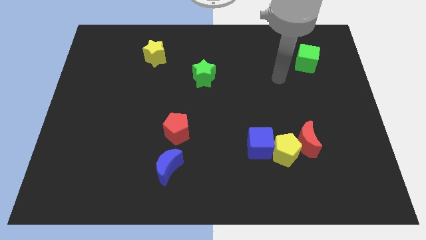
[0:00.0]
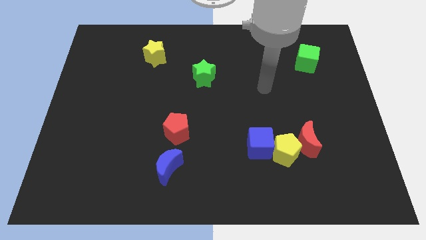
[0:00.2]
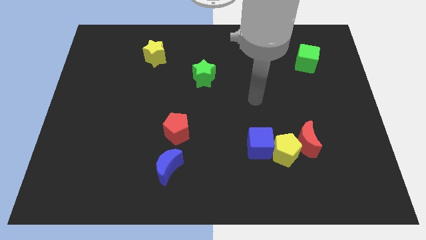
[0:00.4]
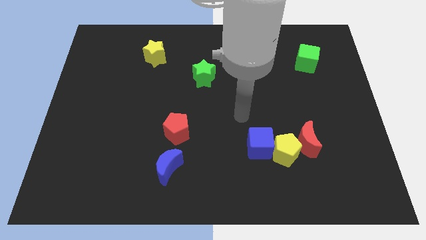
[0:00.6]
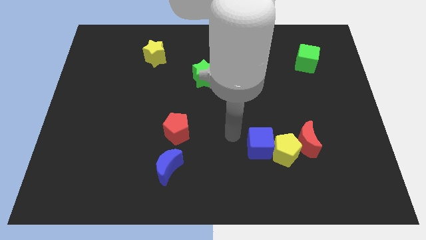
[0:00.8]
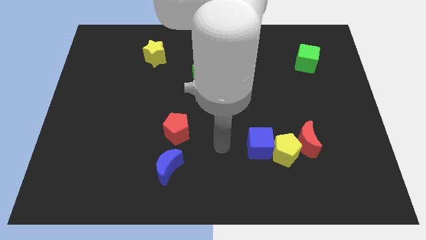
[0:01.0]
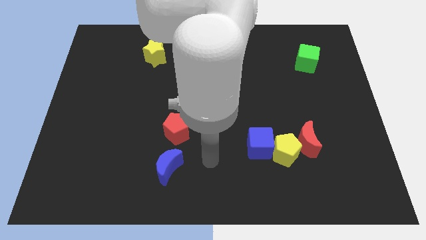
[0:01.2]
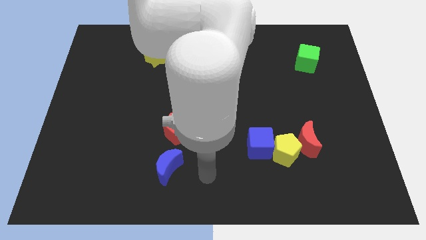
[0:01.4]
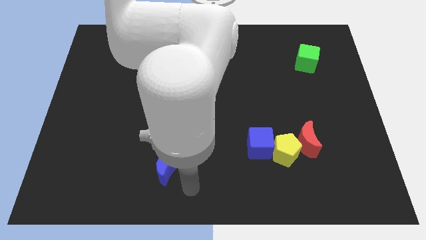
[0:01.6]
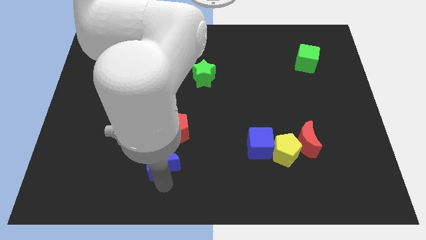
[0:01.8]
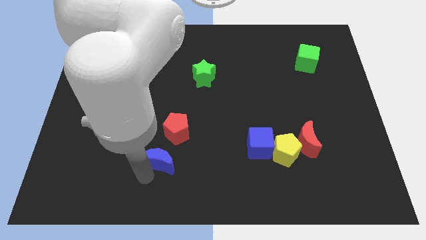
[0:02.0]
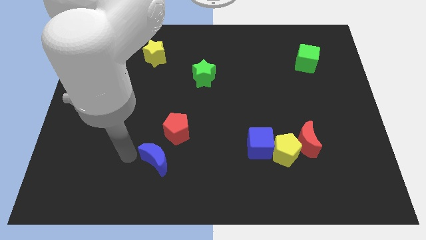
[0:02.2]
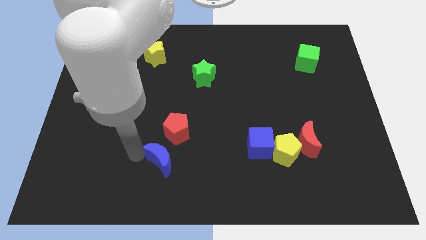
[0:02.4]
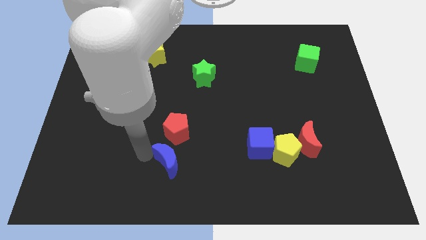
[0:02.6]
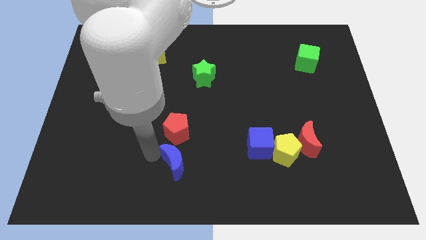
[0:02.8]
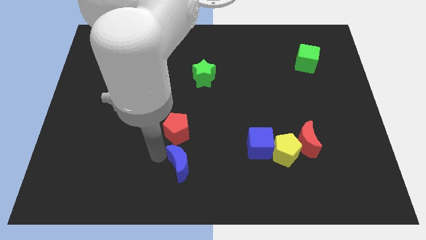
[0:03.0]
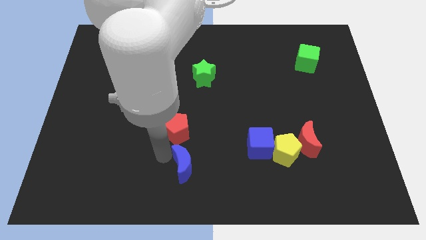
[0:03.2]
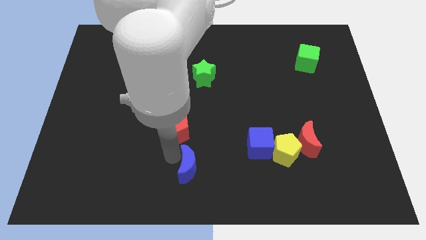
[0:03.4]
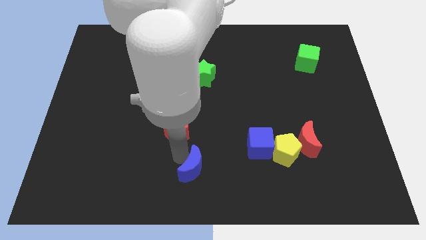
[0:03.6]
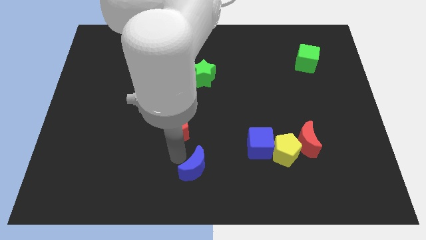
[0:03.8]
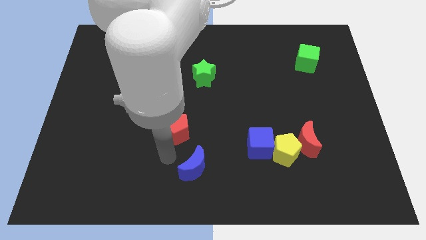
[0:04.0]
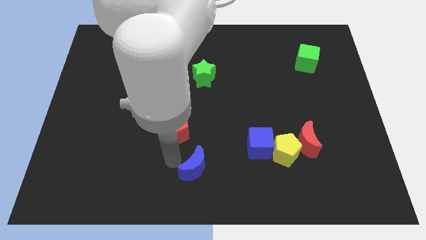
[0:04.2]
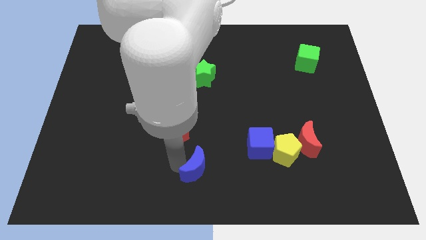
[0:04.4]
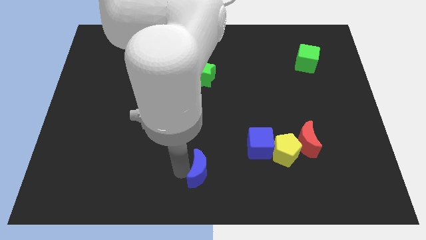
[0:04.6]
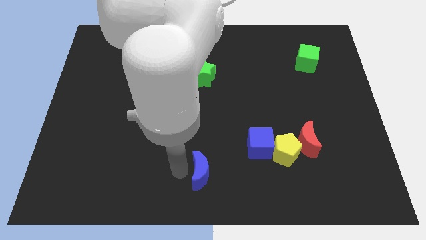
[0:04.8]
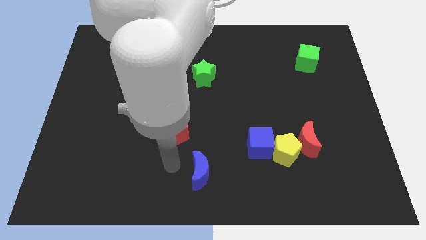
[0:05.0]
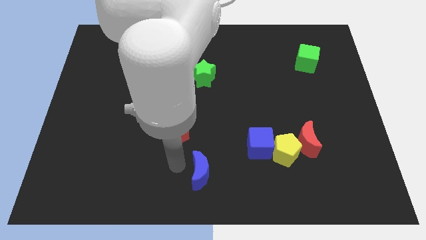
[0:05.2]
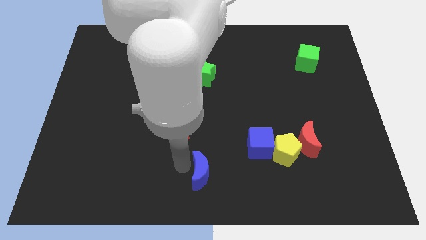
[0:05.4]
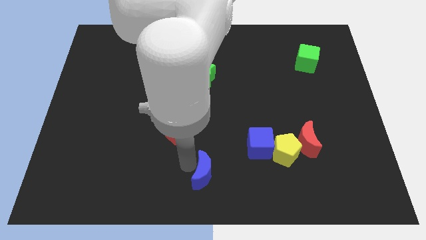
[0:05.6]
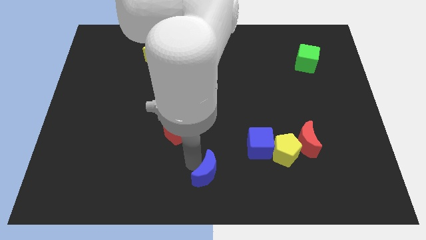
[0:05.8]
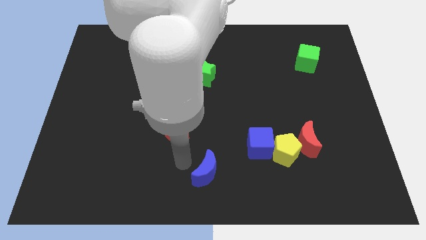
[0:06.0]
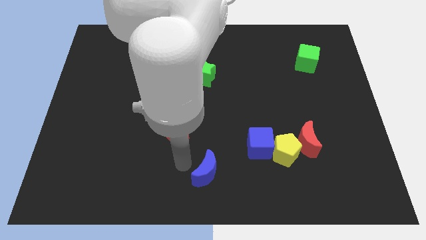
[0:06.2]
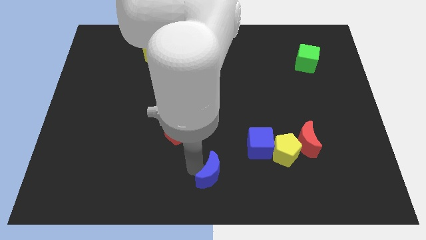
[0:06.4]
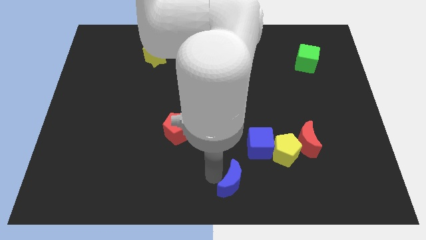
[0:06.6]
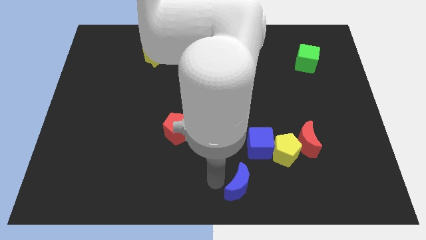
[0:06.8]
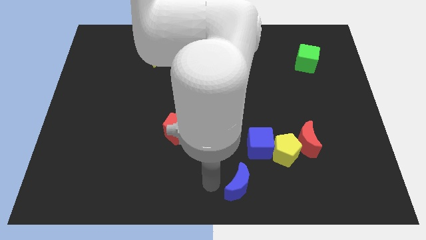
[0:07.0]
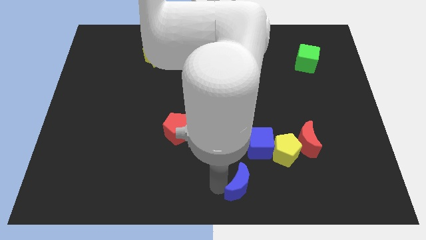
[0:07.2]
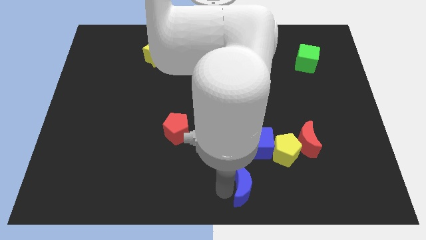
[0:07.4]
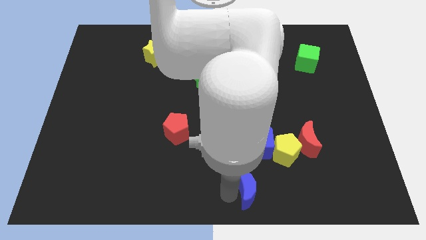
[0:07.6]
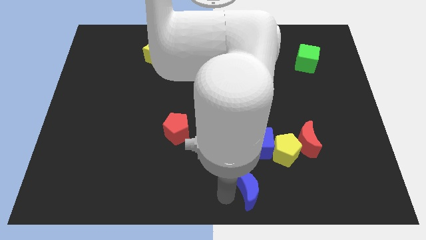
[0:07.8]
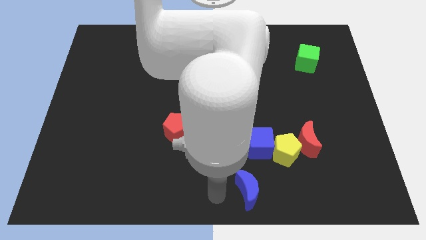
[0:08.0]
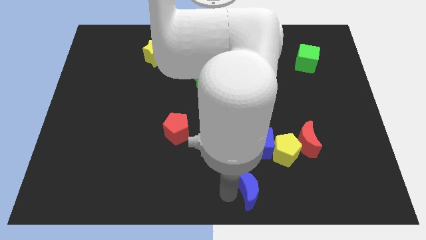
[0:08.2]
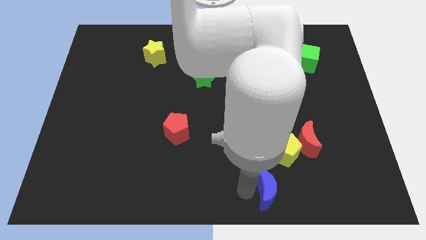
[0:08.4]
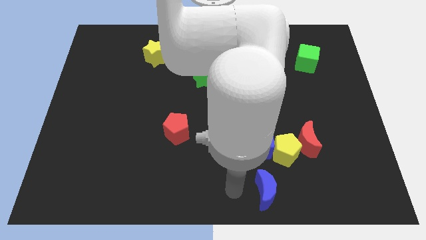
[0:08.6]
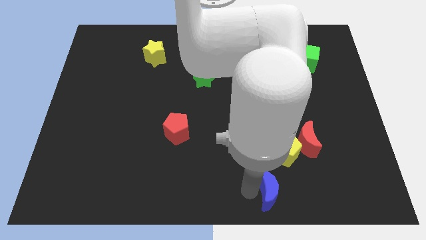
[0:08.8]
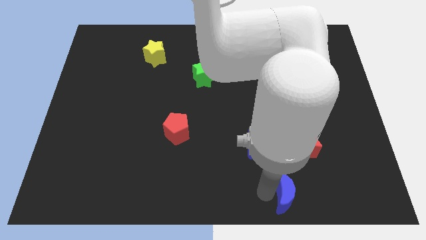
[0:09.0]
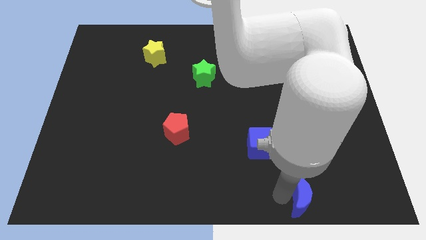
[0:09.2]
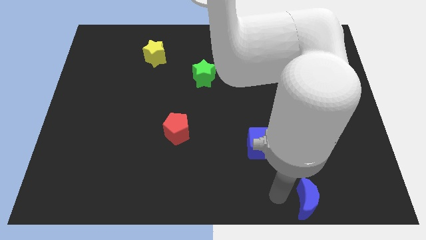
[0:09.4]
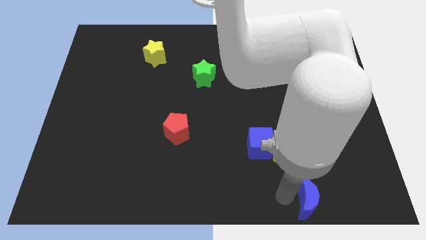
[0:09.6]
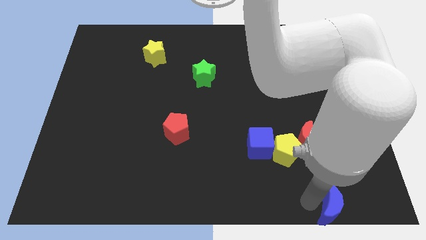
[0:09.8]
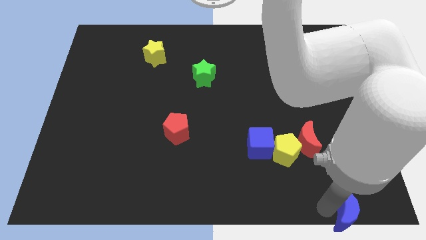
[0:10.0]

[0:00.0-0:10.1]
move the blue moon to the bottom right corner

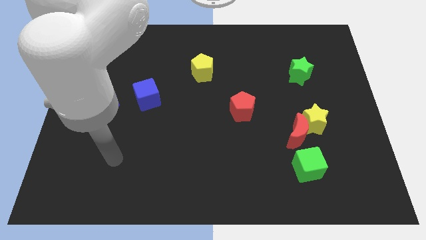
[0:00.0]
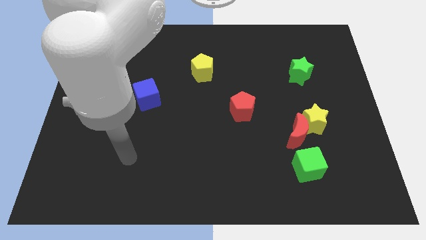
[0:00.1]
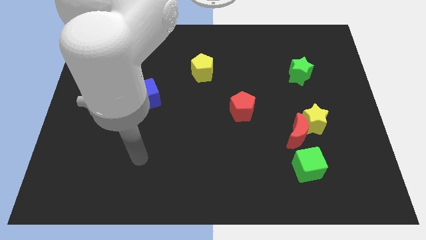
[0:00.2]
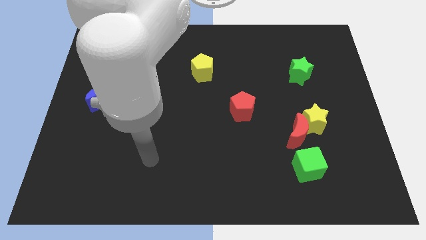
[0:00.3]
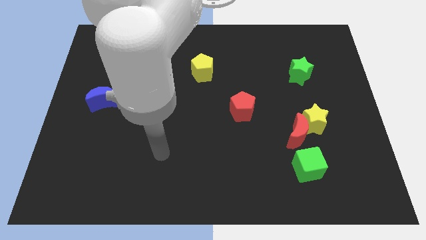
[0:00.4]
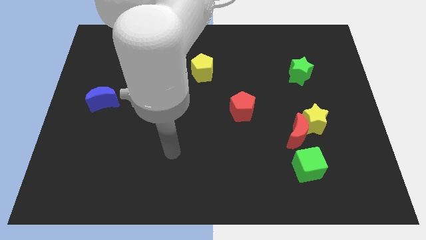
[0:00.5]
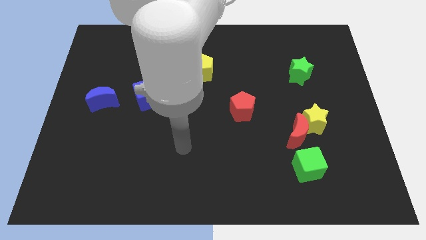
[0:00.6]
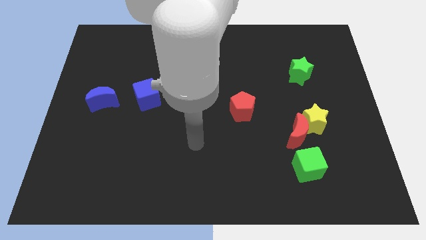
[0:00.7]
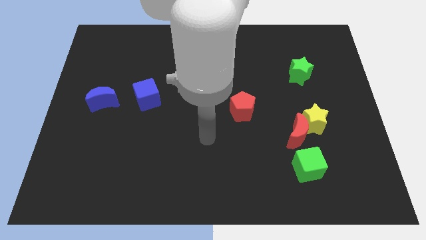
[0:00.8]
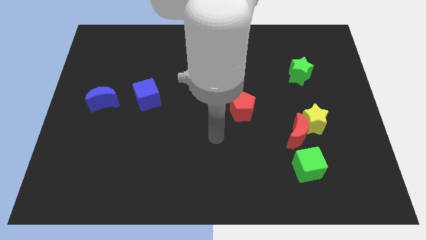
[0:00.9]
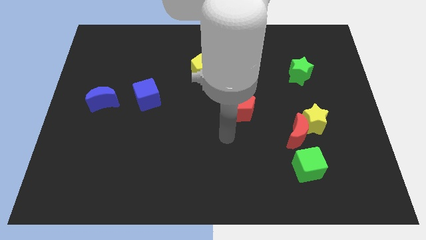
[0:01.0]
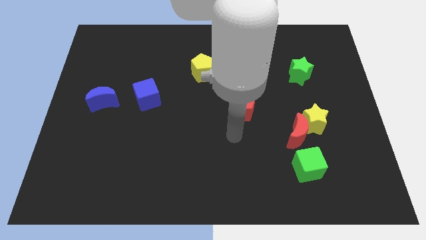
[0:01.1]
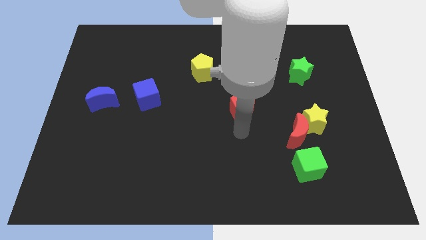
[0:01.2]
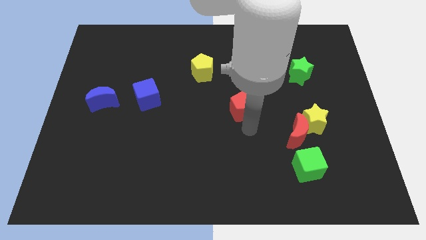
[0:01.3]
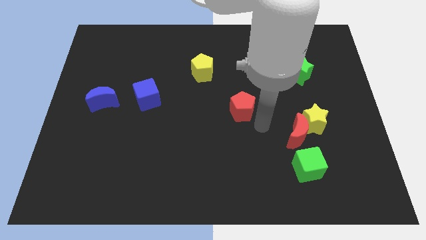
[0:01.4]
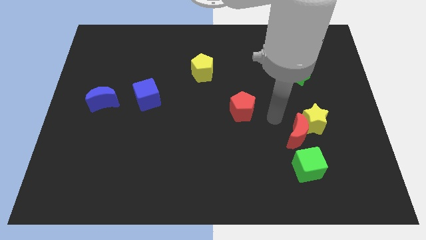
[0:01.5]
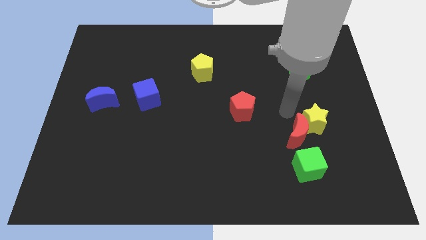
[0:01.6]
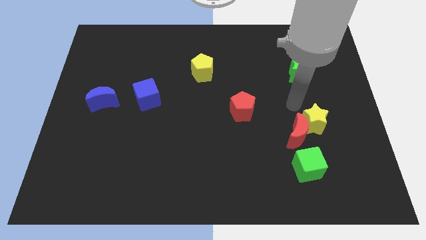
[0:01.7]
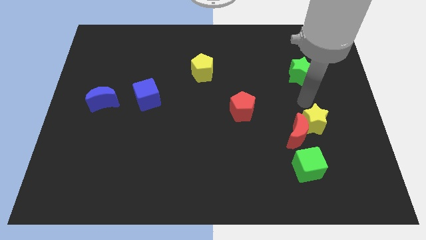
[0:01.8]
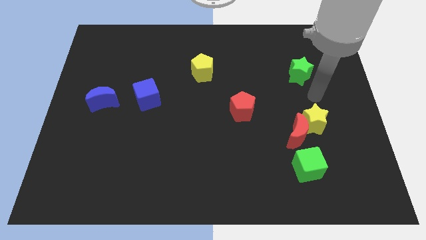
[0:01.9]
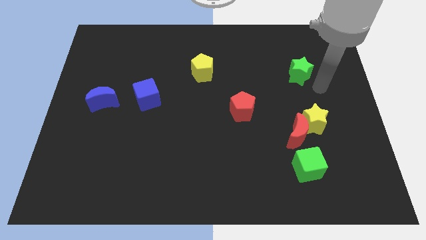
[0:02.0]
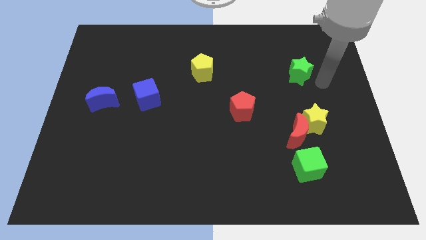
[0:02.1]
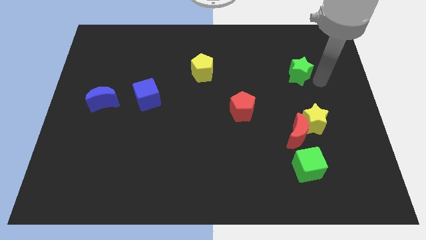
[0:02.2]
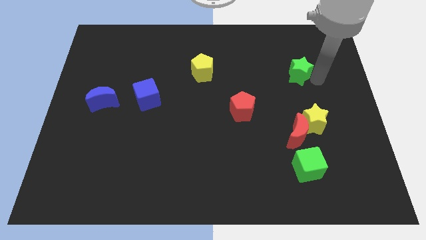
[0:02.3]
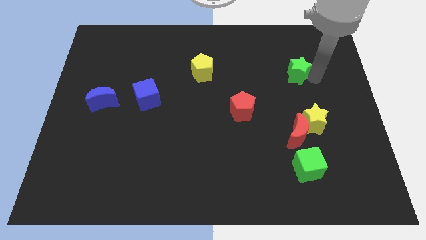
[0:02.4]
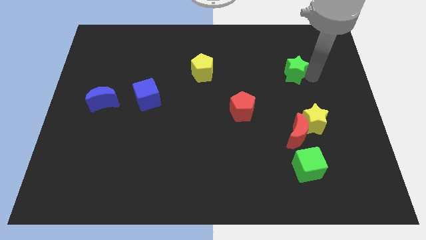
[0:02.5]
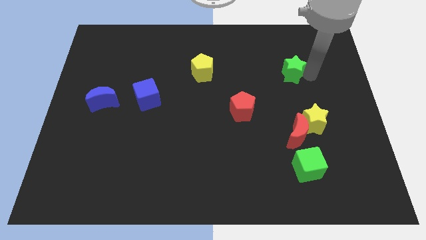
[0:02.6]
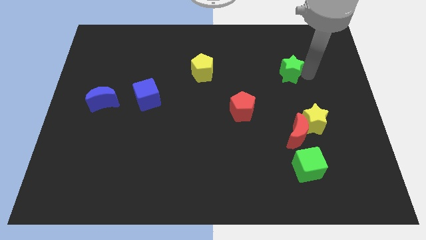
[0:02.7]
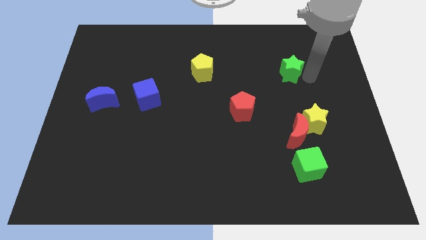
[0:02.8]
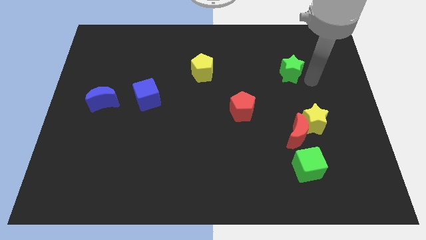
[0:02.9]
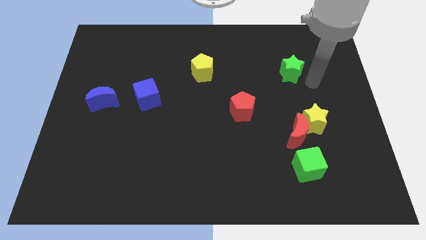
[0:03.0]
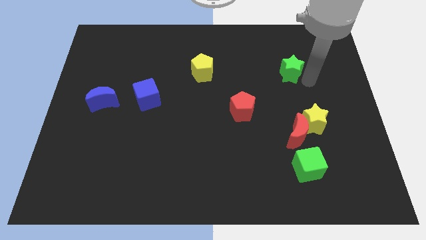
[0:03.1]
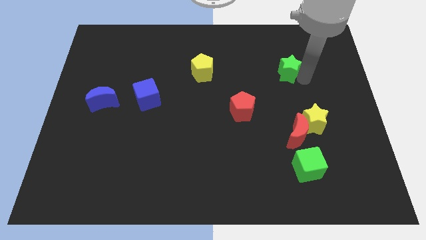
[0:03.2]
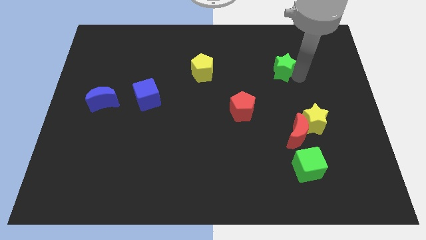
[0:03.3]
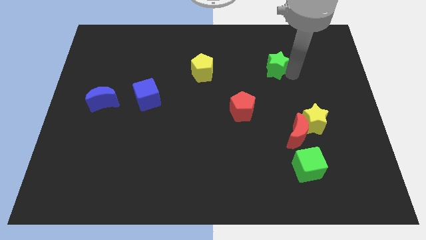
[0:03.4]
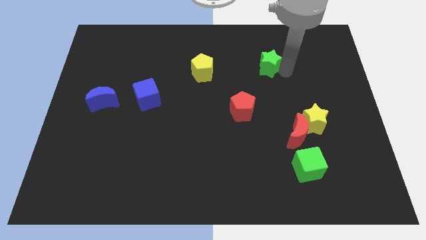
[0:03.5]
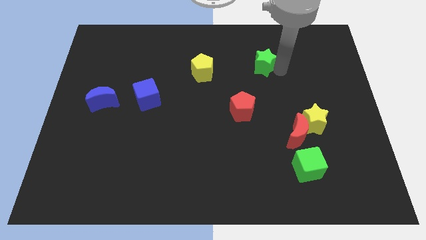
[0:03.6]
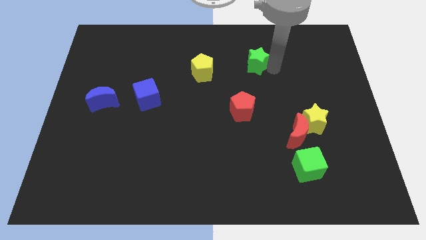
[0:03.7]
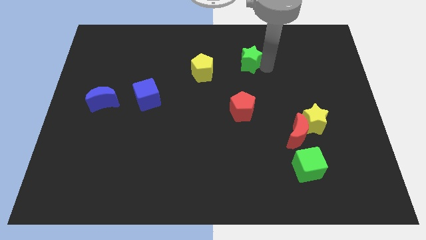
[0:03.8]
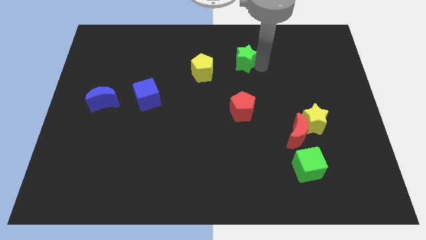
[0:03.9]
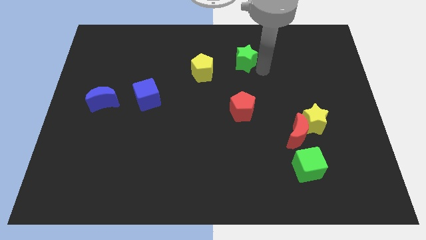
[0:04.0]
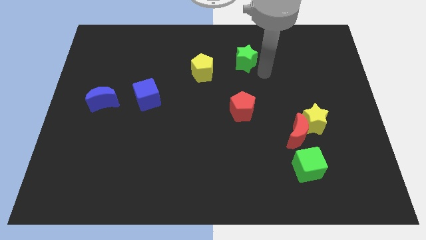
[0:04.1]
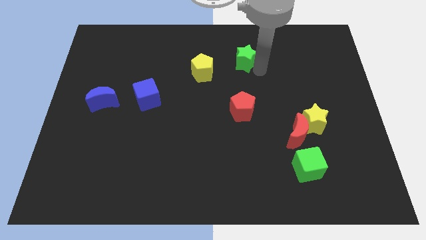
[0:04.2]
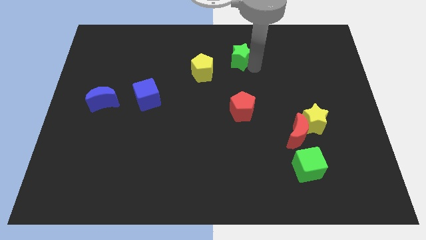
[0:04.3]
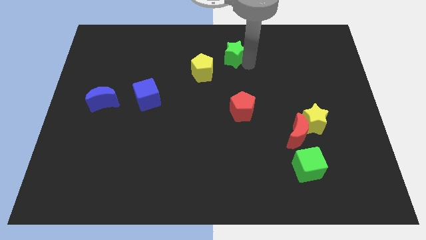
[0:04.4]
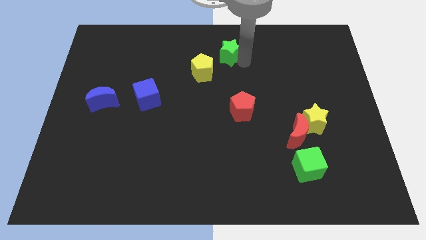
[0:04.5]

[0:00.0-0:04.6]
put the green star to the top
